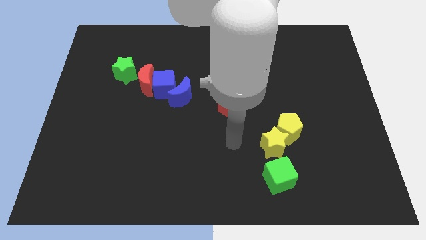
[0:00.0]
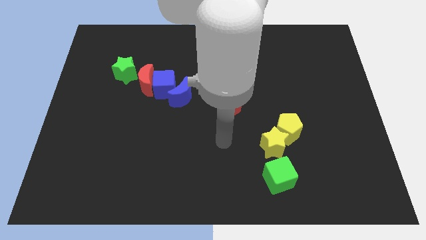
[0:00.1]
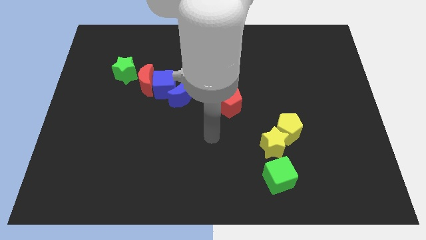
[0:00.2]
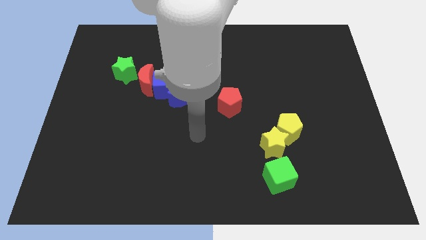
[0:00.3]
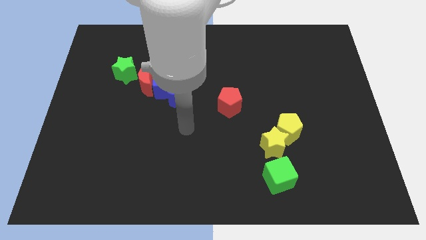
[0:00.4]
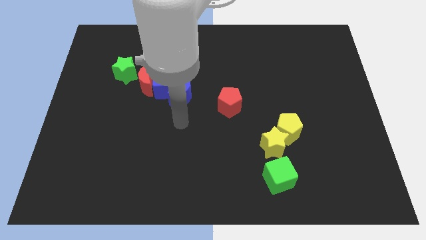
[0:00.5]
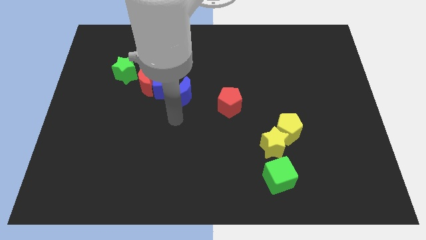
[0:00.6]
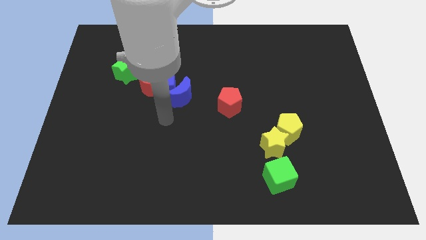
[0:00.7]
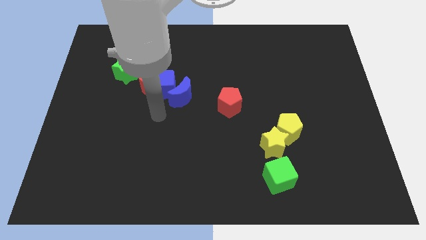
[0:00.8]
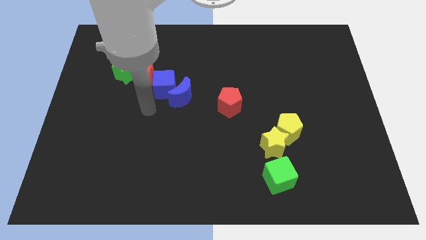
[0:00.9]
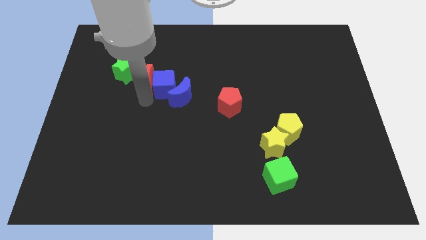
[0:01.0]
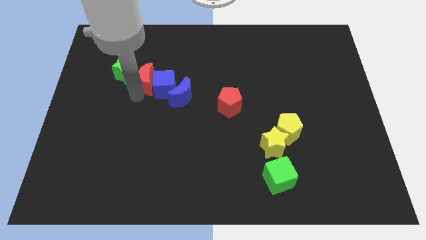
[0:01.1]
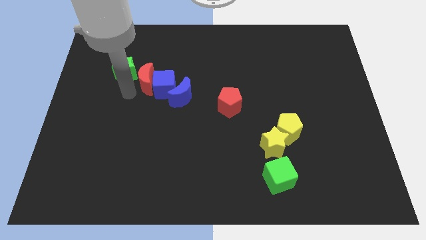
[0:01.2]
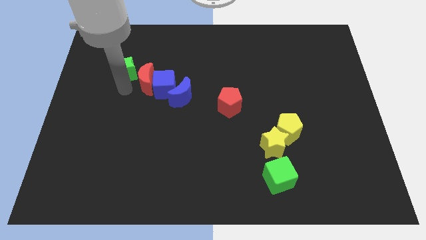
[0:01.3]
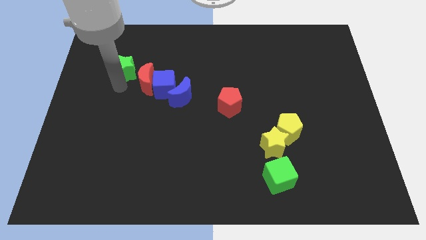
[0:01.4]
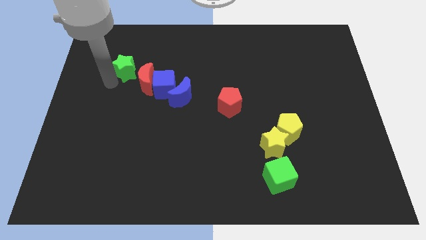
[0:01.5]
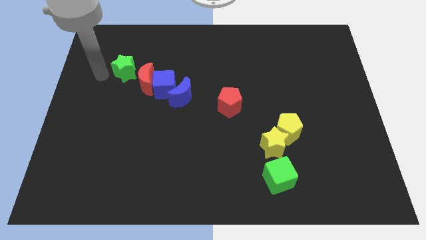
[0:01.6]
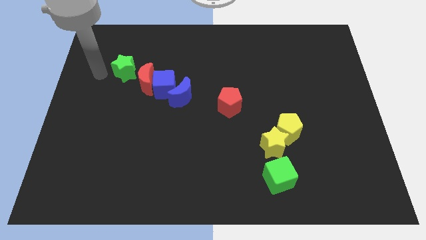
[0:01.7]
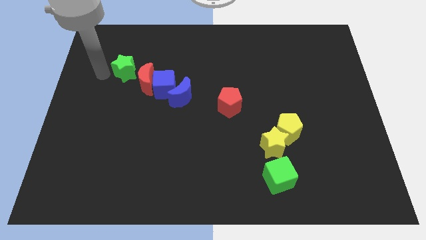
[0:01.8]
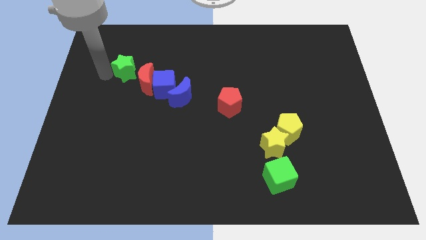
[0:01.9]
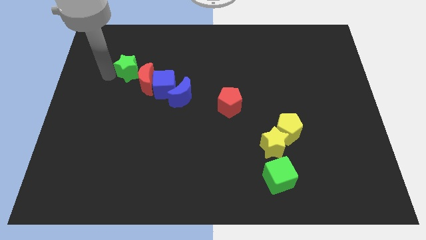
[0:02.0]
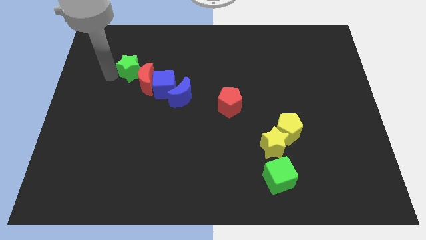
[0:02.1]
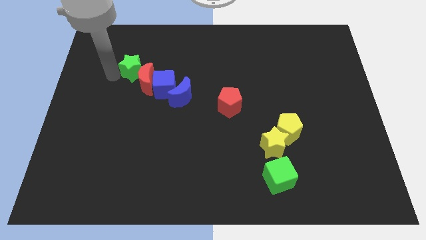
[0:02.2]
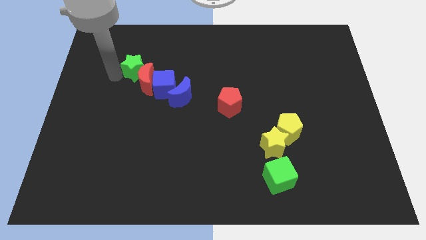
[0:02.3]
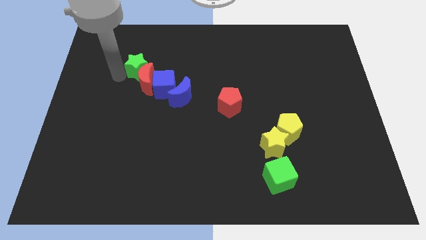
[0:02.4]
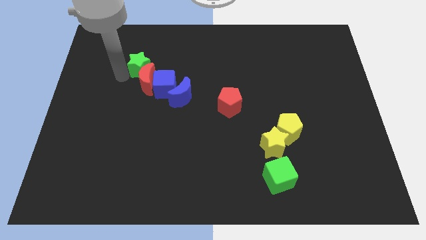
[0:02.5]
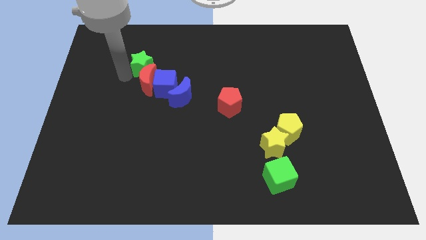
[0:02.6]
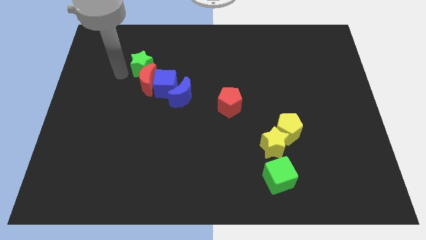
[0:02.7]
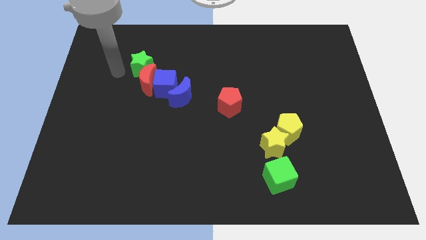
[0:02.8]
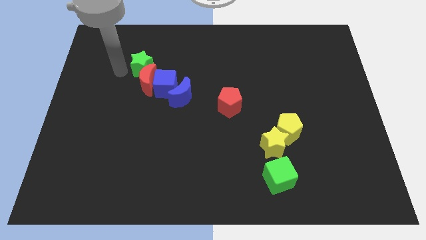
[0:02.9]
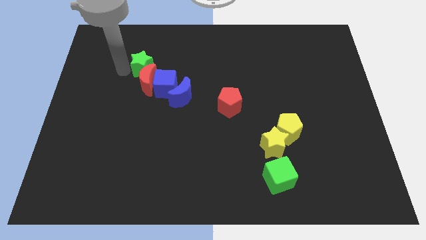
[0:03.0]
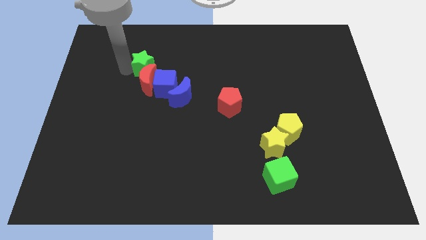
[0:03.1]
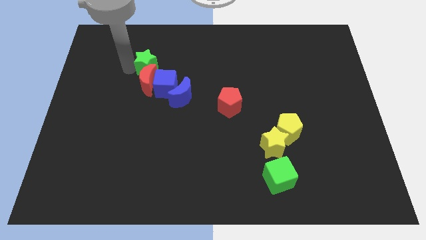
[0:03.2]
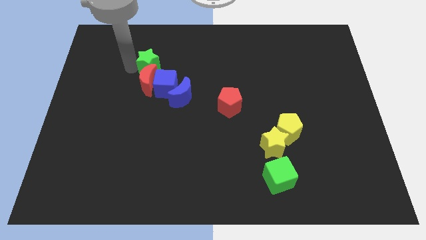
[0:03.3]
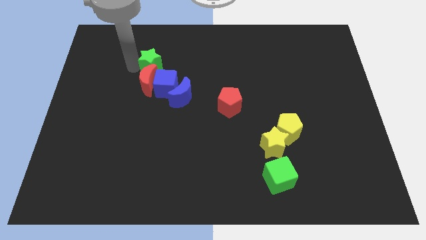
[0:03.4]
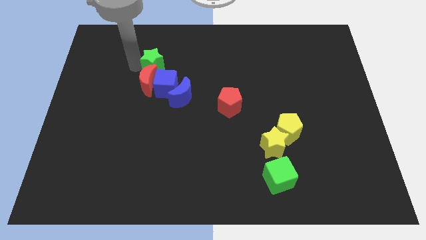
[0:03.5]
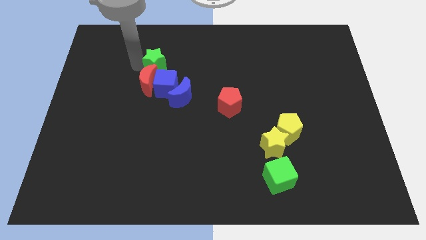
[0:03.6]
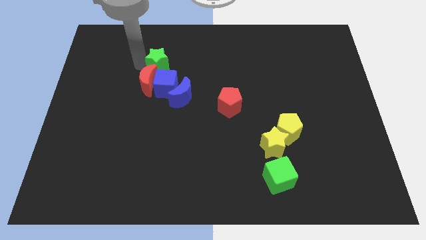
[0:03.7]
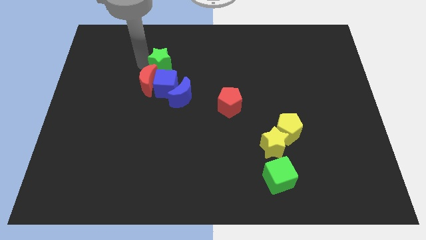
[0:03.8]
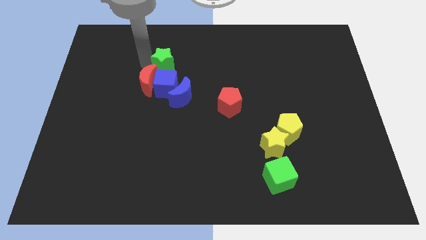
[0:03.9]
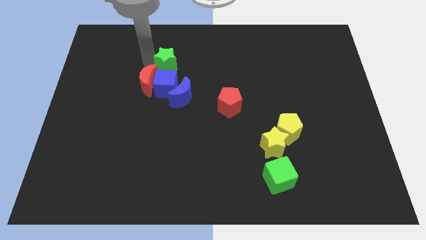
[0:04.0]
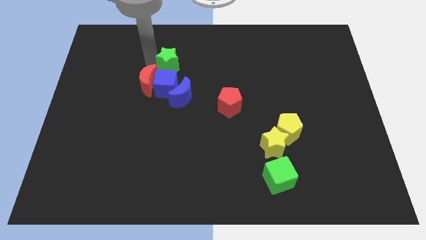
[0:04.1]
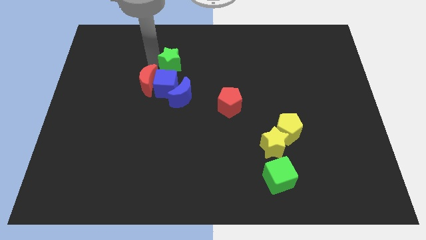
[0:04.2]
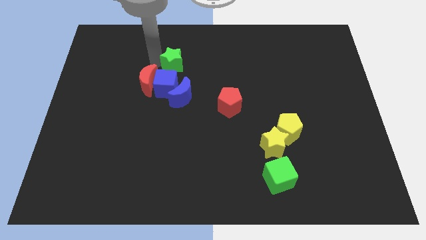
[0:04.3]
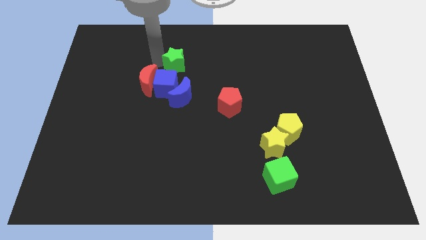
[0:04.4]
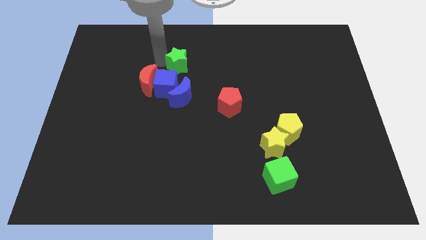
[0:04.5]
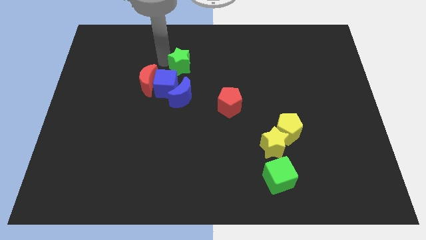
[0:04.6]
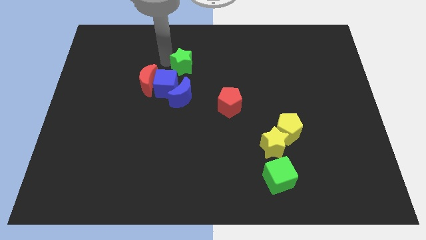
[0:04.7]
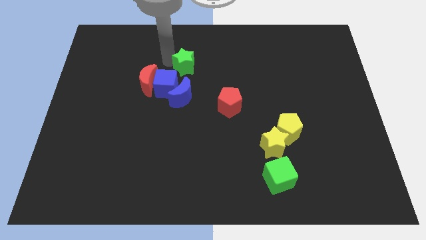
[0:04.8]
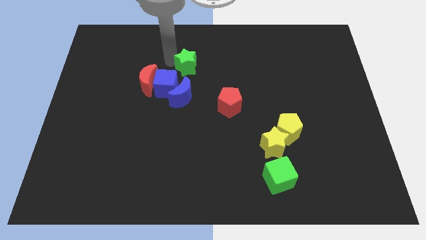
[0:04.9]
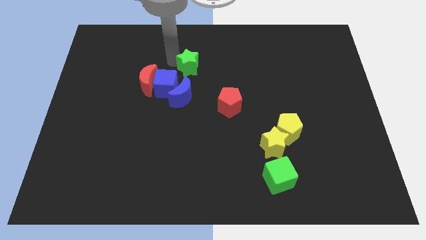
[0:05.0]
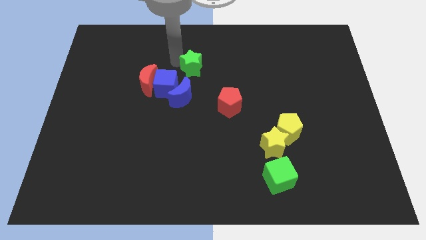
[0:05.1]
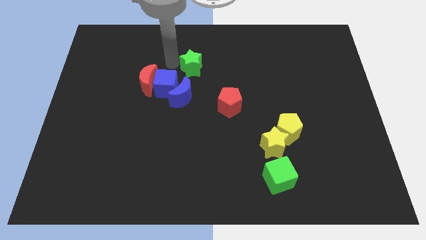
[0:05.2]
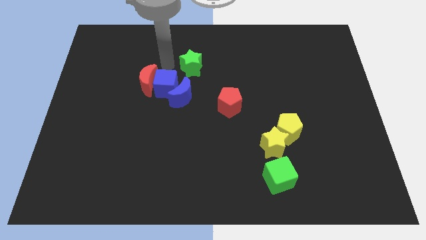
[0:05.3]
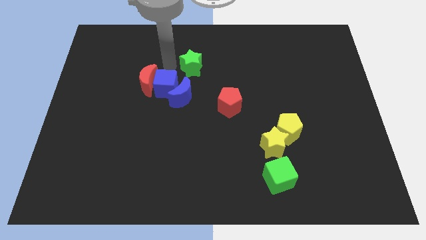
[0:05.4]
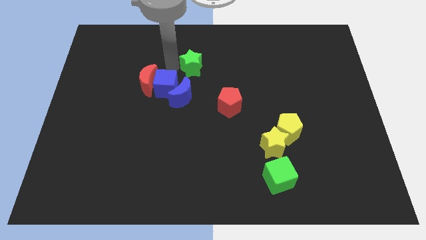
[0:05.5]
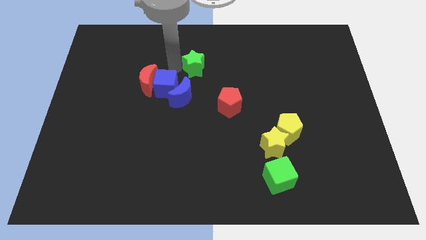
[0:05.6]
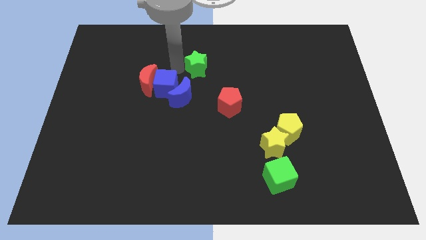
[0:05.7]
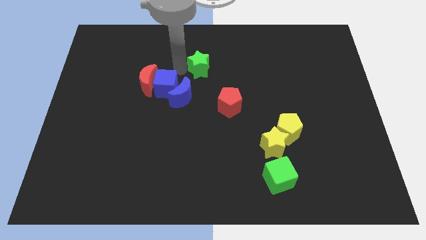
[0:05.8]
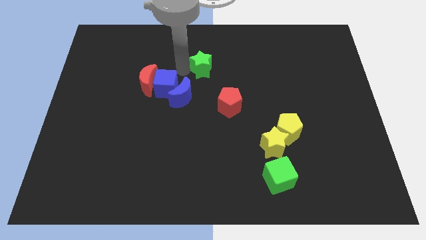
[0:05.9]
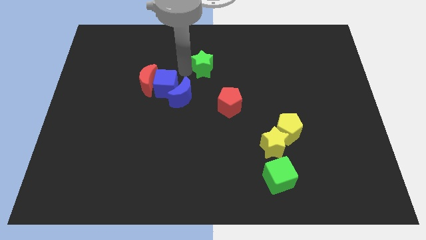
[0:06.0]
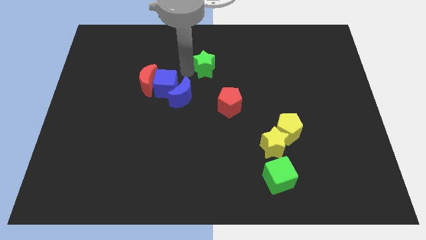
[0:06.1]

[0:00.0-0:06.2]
slide the green star to the right

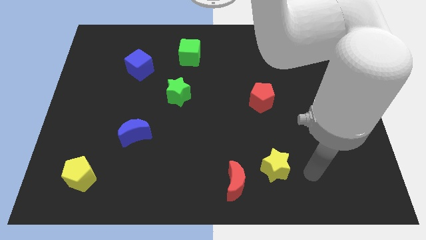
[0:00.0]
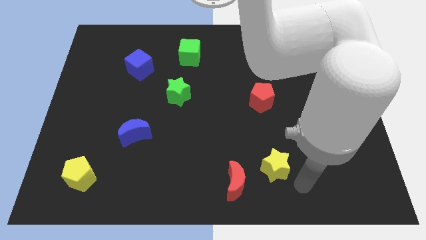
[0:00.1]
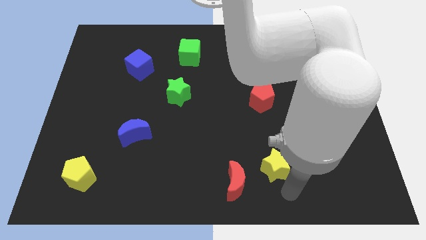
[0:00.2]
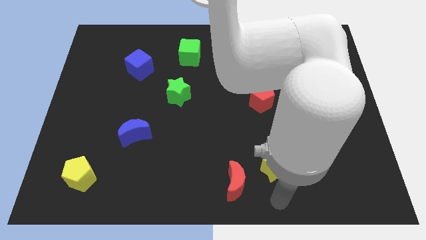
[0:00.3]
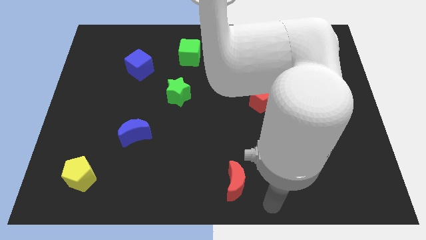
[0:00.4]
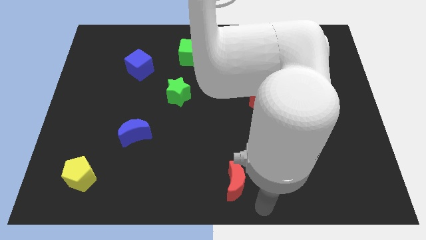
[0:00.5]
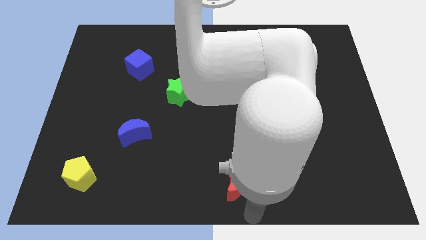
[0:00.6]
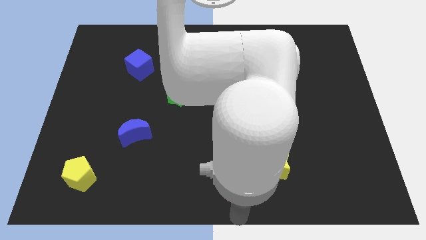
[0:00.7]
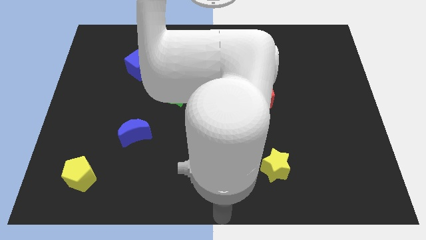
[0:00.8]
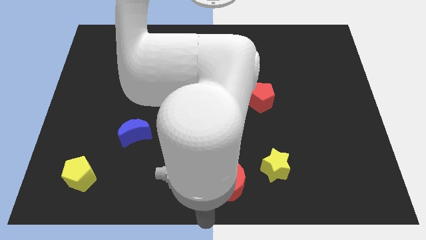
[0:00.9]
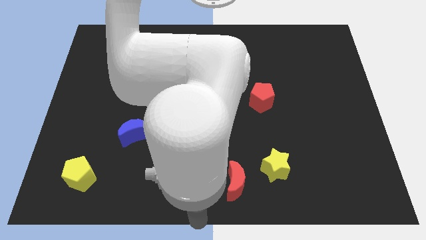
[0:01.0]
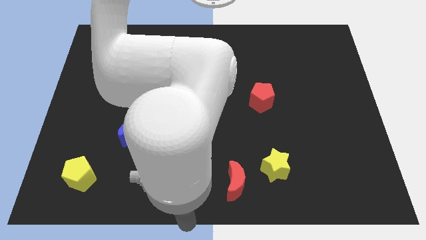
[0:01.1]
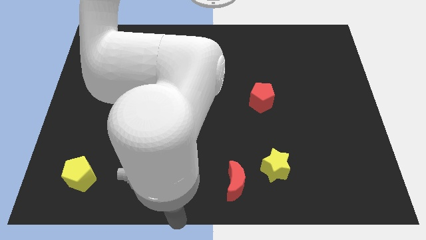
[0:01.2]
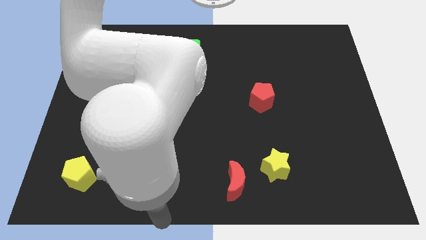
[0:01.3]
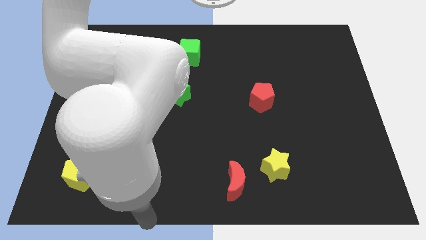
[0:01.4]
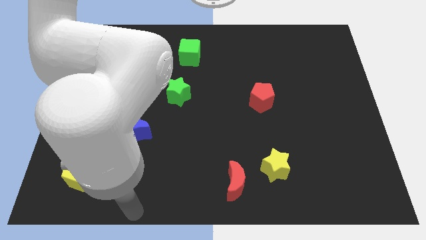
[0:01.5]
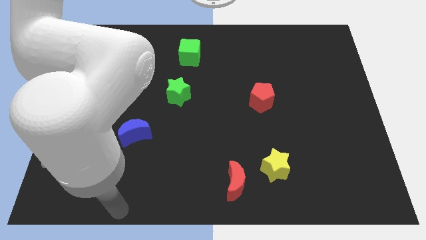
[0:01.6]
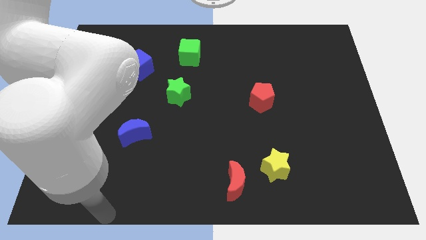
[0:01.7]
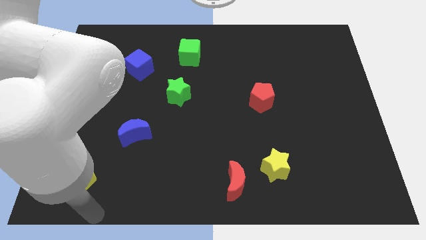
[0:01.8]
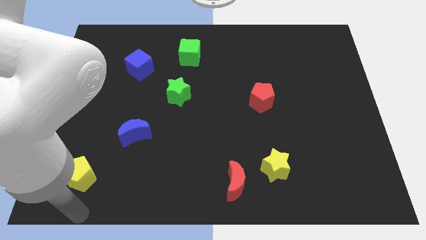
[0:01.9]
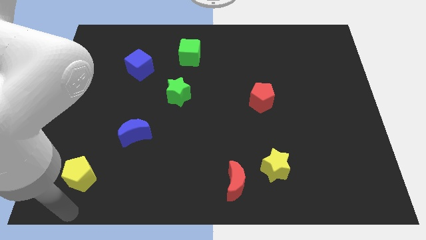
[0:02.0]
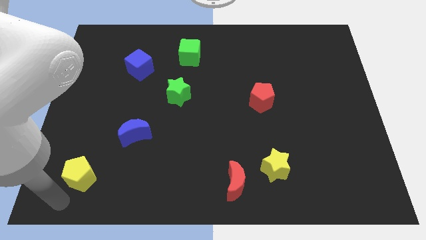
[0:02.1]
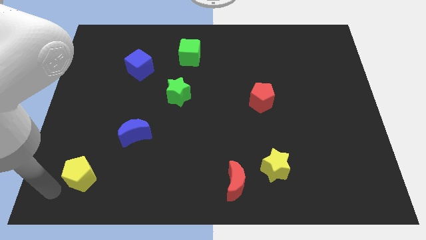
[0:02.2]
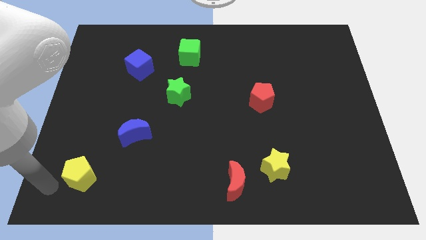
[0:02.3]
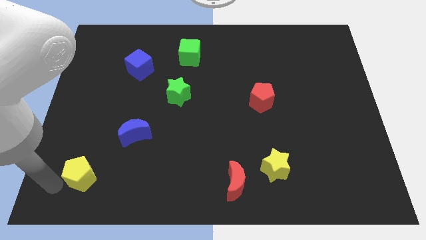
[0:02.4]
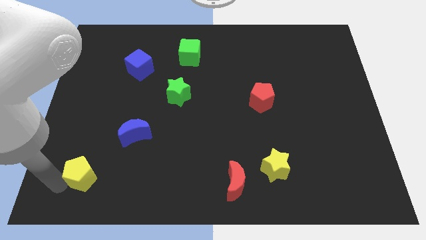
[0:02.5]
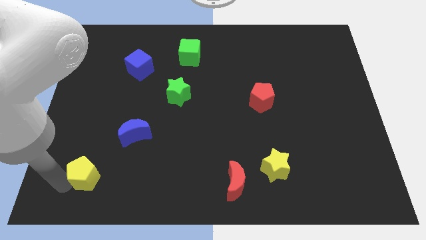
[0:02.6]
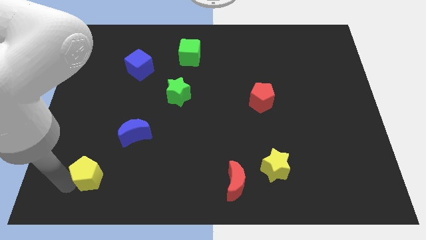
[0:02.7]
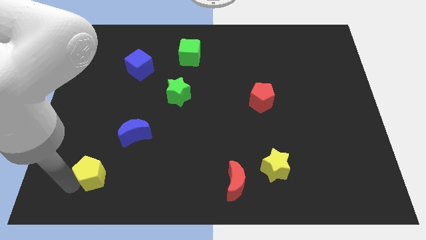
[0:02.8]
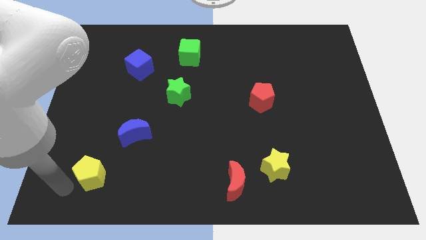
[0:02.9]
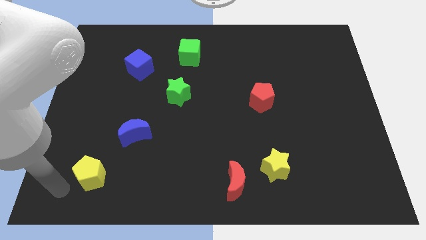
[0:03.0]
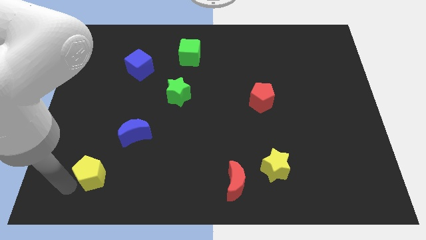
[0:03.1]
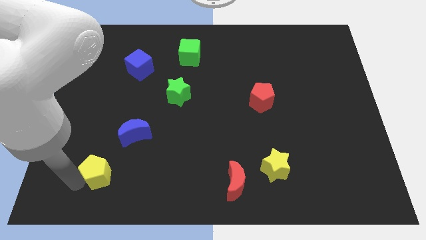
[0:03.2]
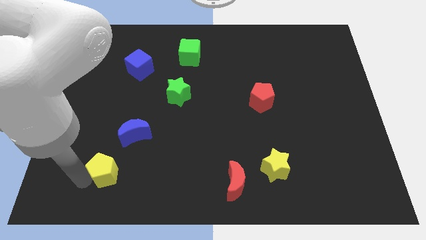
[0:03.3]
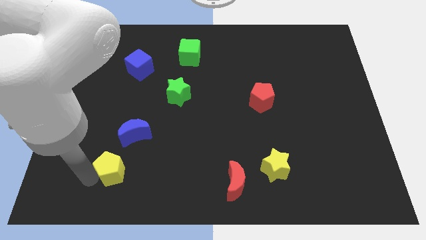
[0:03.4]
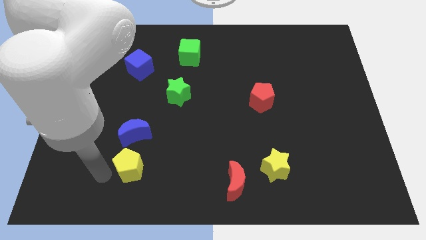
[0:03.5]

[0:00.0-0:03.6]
move the yellow pentagon a little upwards and then right
